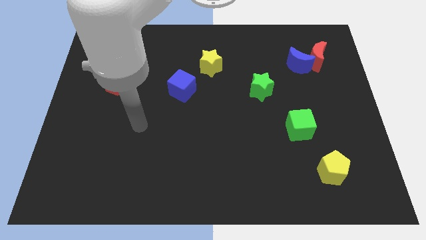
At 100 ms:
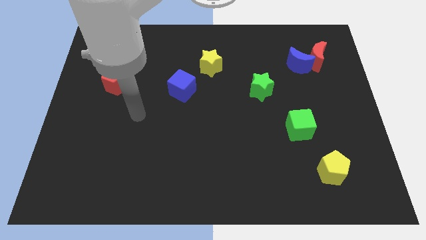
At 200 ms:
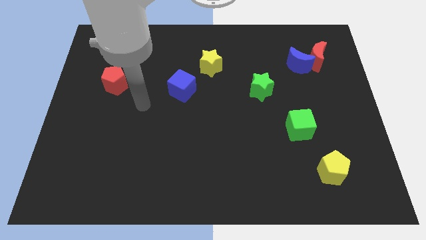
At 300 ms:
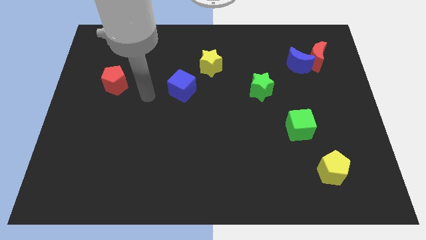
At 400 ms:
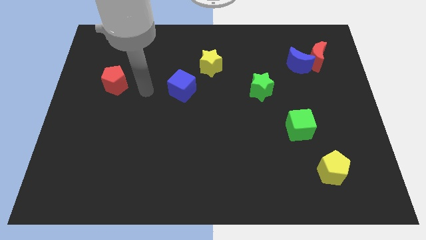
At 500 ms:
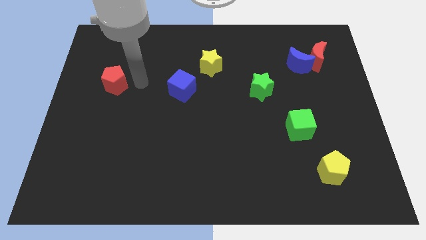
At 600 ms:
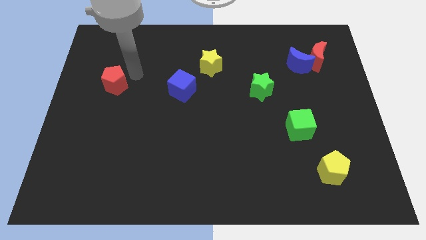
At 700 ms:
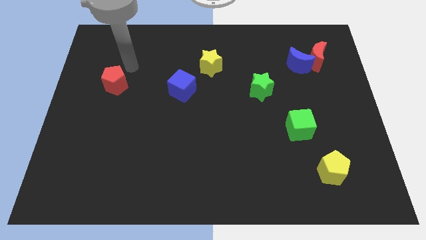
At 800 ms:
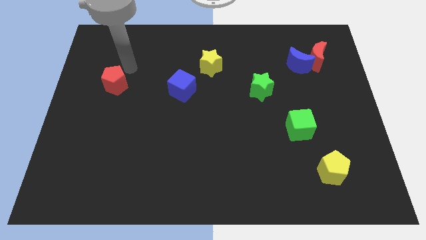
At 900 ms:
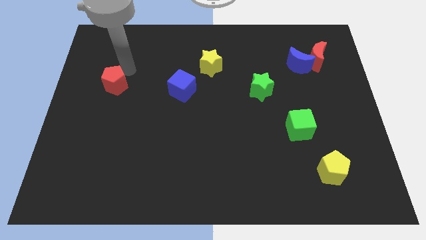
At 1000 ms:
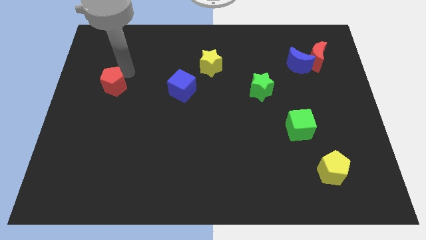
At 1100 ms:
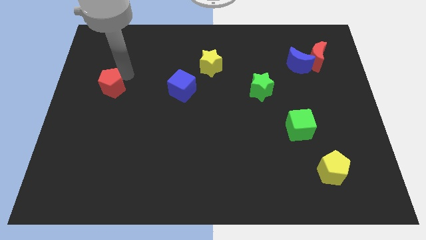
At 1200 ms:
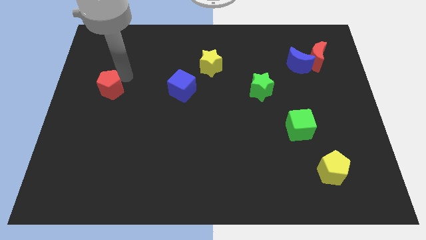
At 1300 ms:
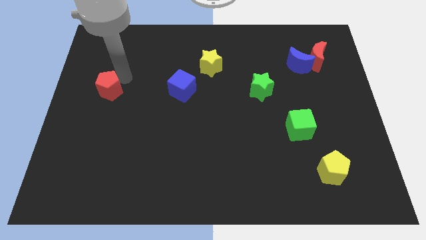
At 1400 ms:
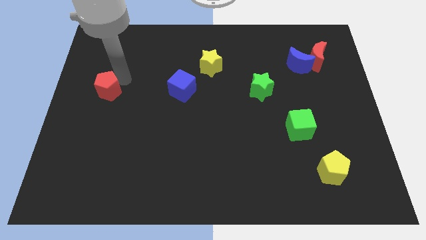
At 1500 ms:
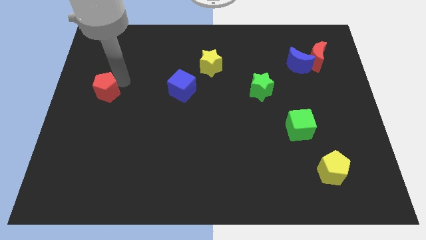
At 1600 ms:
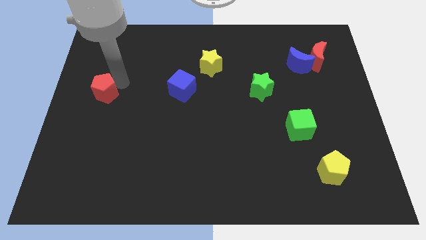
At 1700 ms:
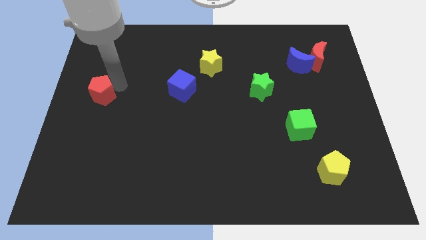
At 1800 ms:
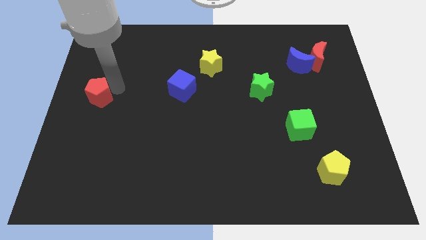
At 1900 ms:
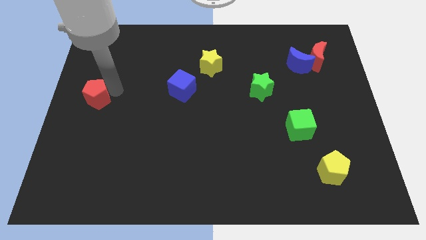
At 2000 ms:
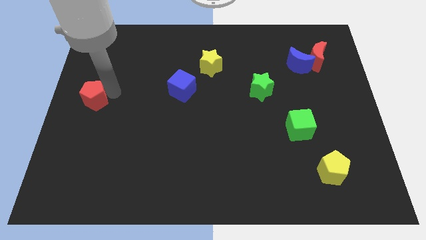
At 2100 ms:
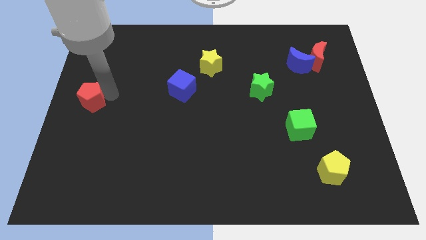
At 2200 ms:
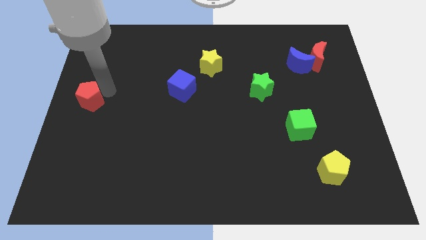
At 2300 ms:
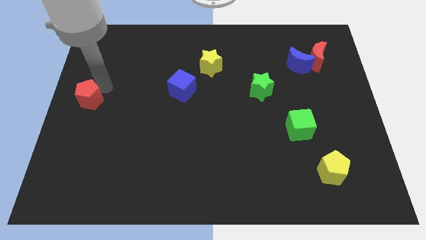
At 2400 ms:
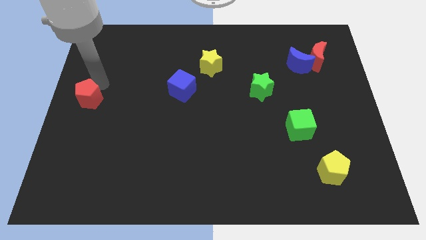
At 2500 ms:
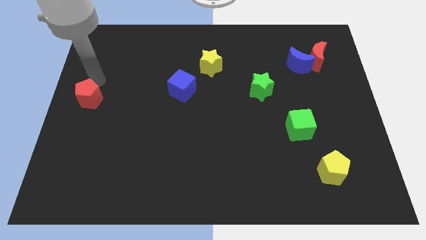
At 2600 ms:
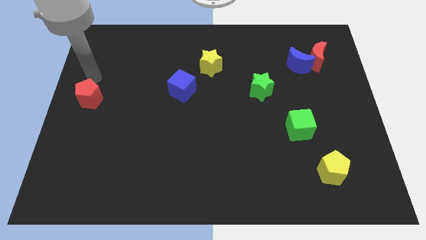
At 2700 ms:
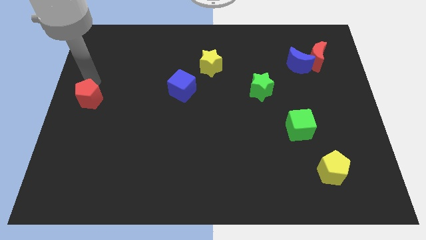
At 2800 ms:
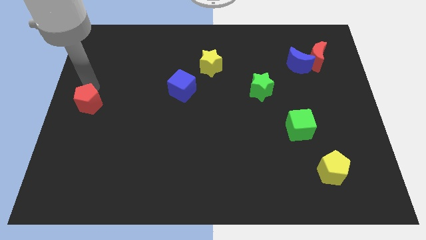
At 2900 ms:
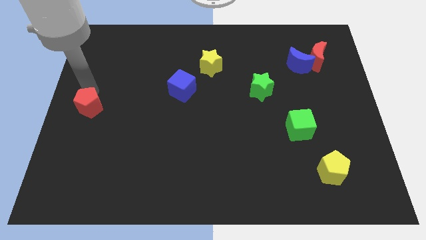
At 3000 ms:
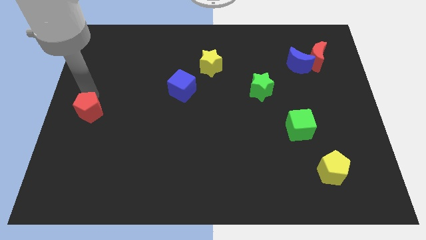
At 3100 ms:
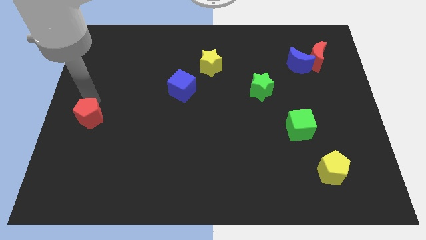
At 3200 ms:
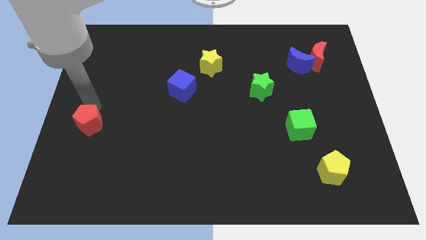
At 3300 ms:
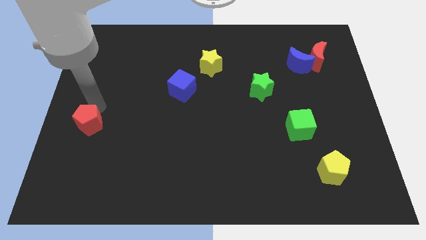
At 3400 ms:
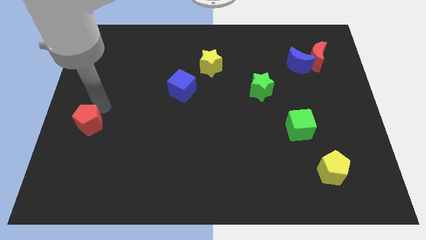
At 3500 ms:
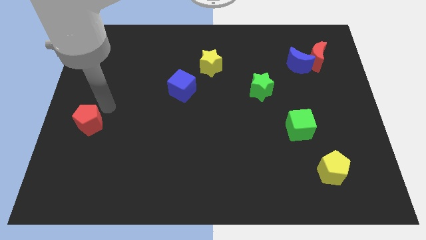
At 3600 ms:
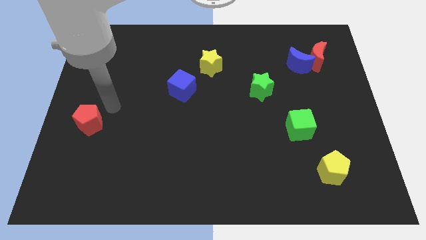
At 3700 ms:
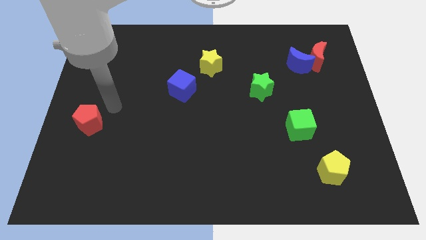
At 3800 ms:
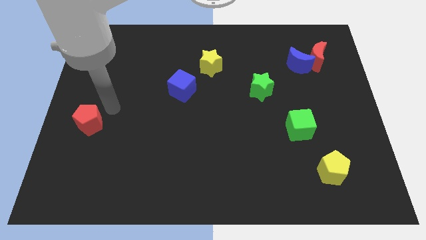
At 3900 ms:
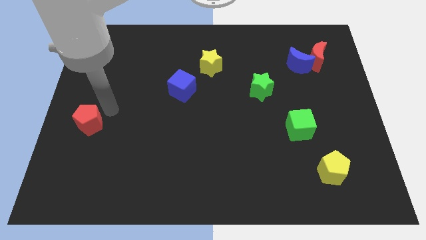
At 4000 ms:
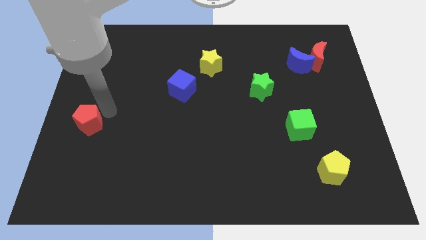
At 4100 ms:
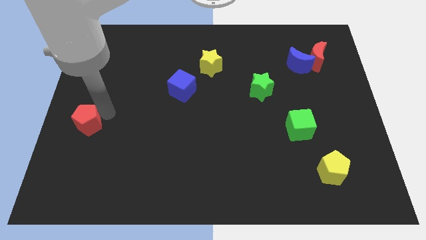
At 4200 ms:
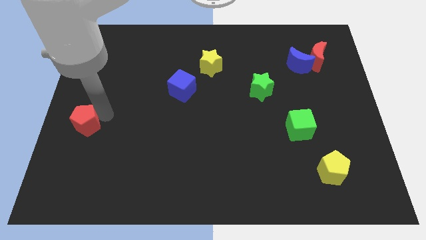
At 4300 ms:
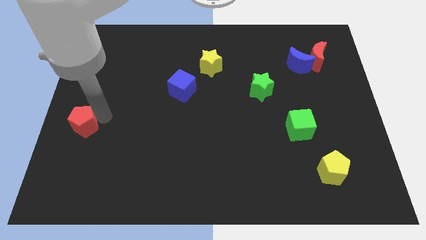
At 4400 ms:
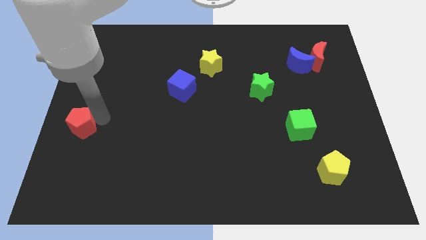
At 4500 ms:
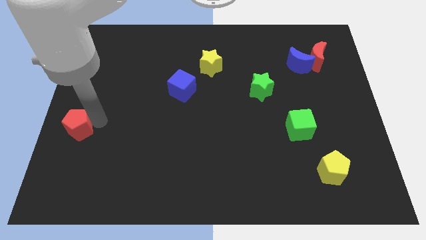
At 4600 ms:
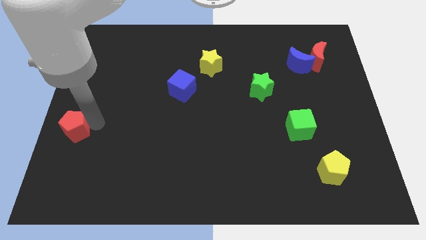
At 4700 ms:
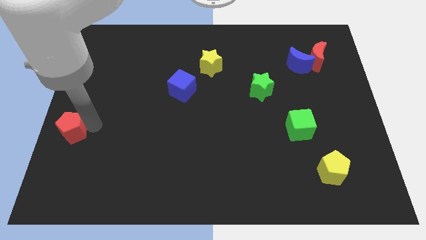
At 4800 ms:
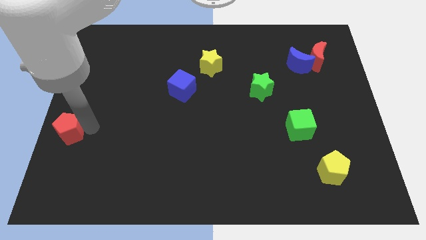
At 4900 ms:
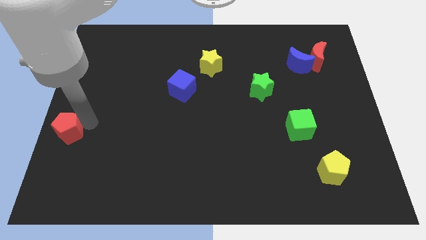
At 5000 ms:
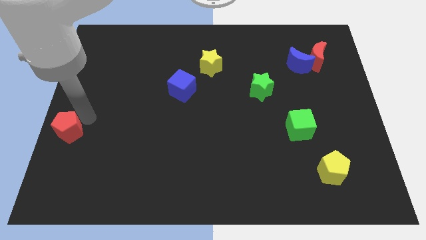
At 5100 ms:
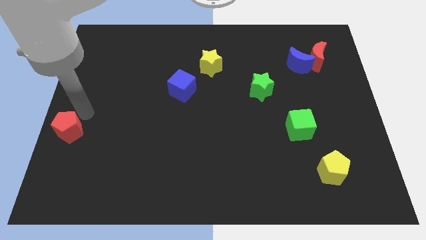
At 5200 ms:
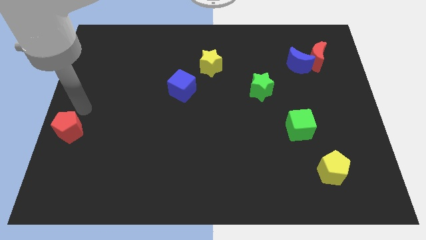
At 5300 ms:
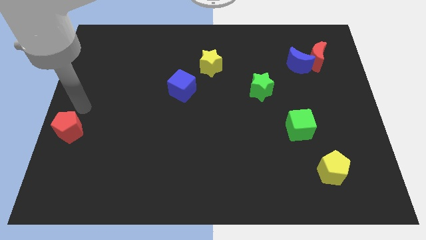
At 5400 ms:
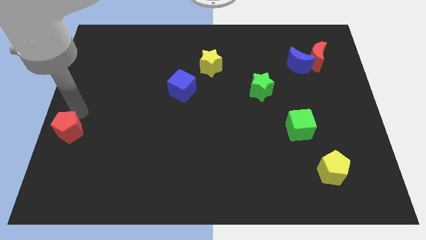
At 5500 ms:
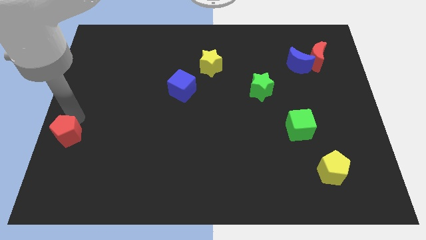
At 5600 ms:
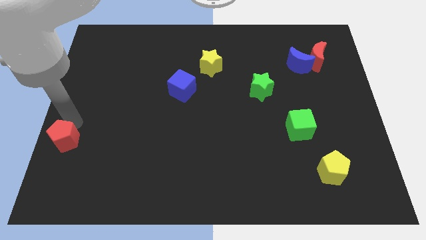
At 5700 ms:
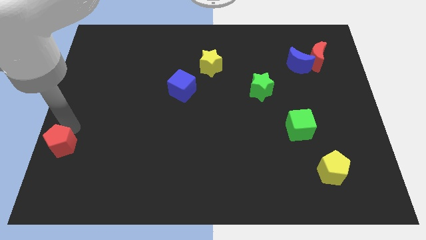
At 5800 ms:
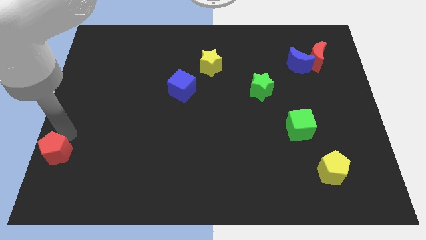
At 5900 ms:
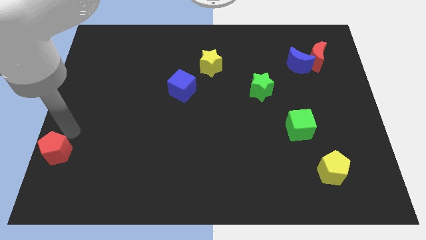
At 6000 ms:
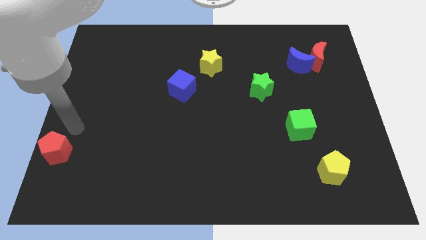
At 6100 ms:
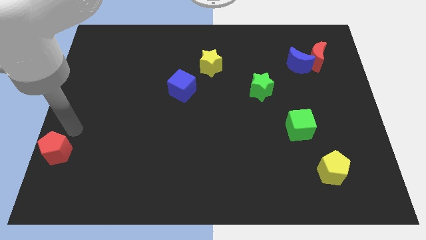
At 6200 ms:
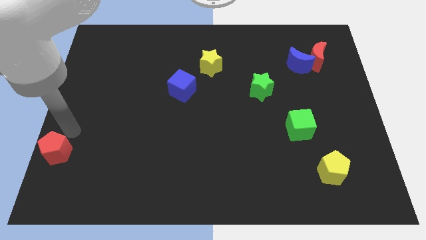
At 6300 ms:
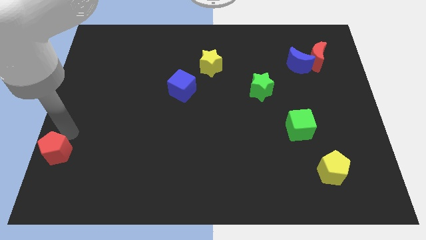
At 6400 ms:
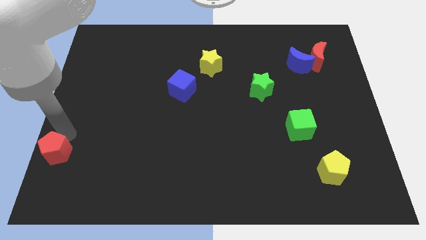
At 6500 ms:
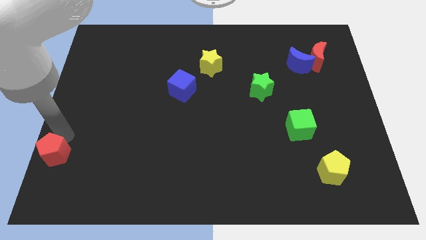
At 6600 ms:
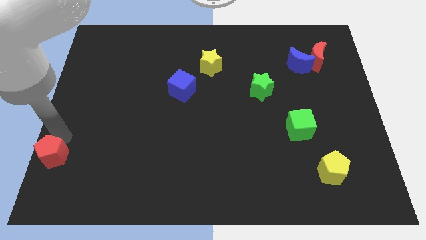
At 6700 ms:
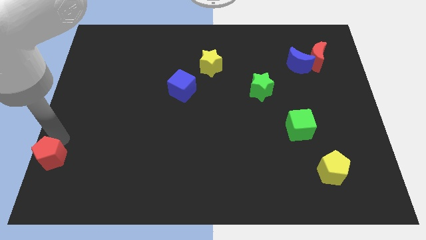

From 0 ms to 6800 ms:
slide the red pentagon to the bottom left corner
